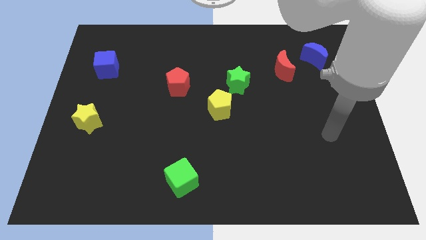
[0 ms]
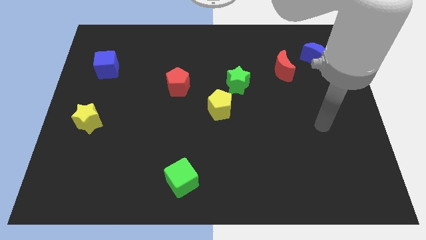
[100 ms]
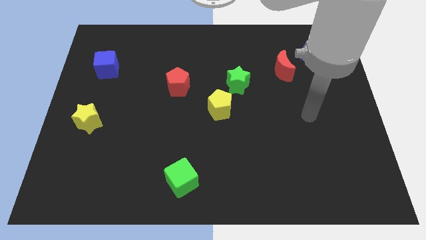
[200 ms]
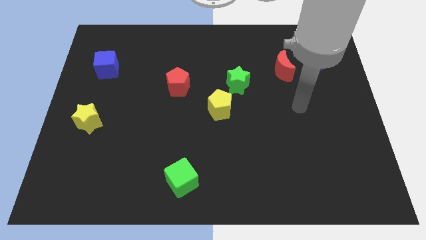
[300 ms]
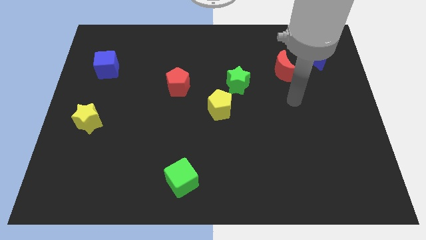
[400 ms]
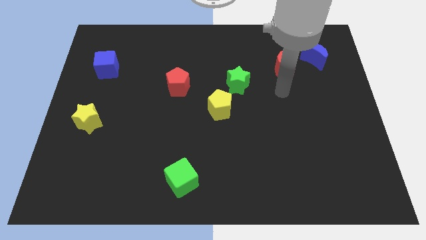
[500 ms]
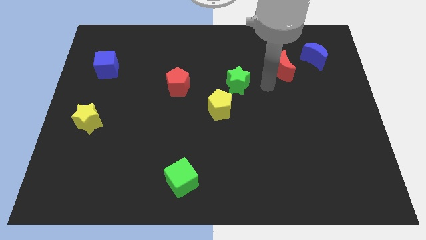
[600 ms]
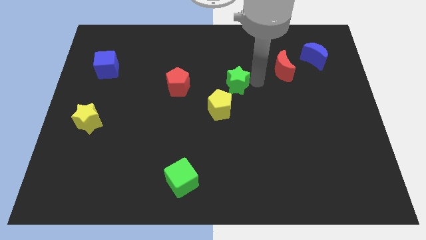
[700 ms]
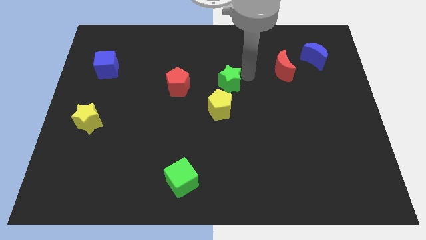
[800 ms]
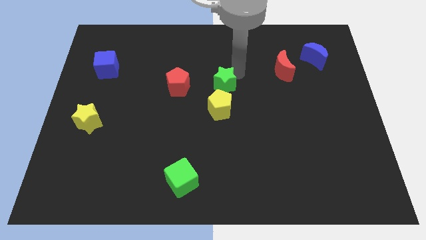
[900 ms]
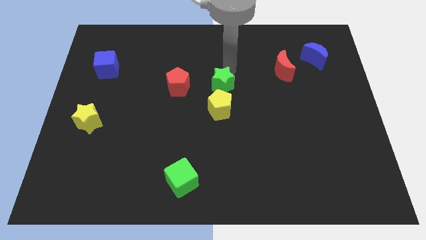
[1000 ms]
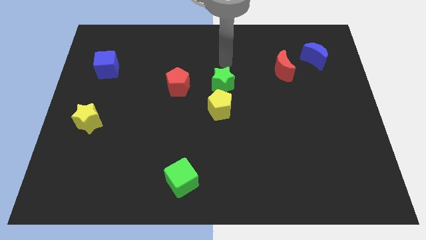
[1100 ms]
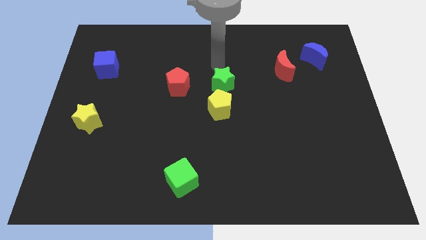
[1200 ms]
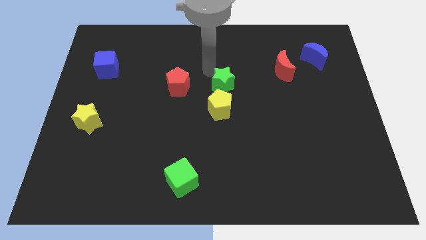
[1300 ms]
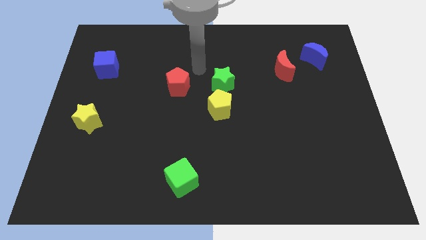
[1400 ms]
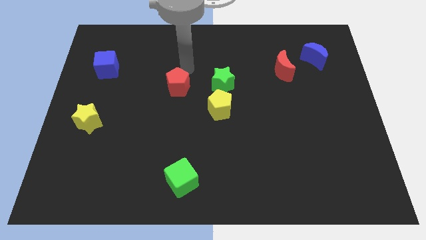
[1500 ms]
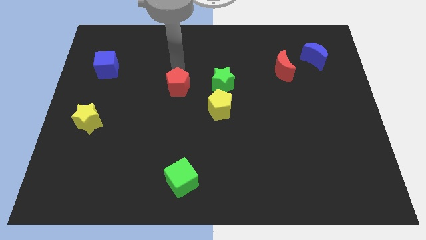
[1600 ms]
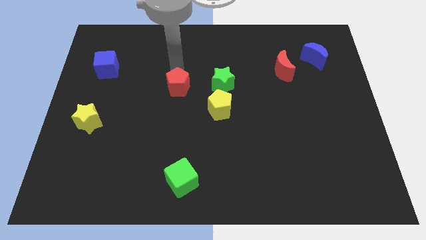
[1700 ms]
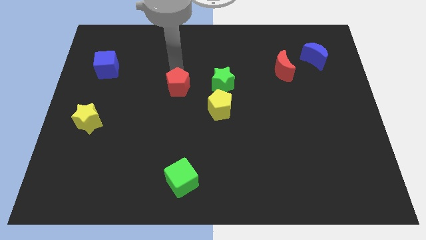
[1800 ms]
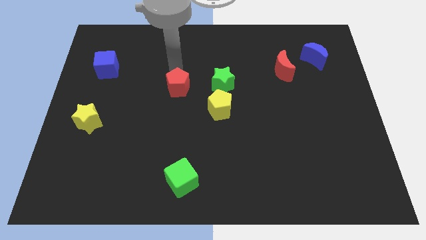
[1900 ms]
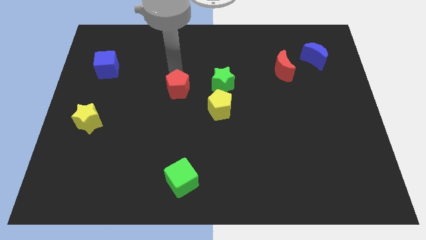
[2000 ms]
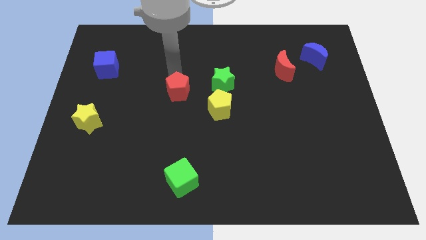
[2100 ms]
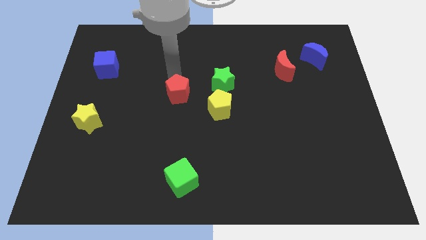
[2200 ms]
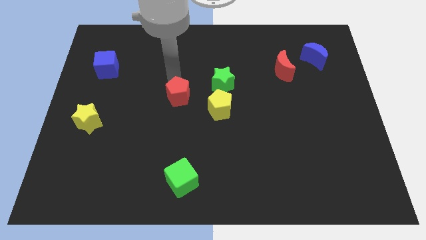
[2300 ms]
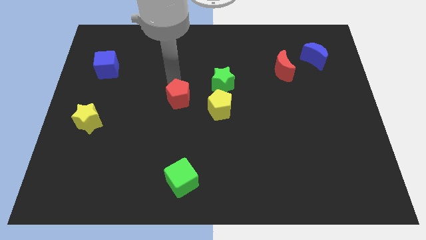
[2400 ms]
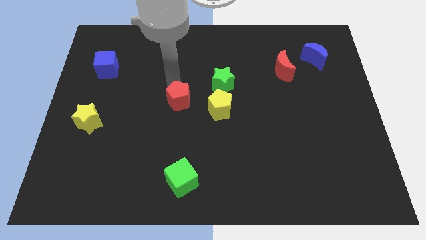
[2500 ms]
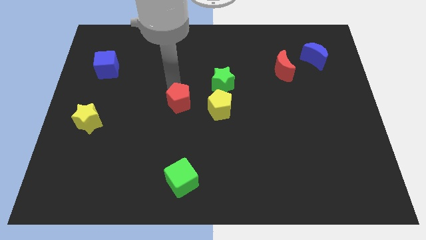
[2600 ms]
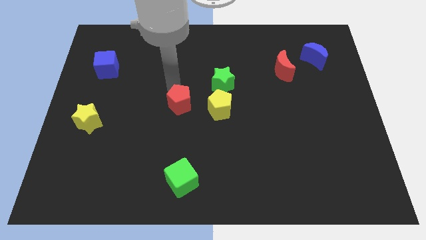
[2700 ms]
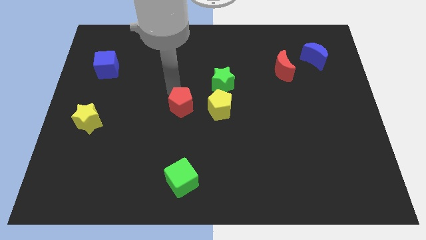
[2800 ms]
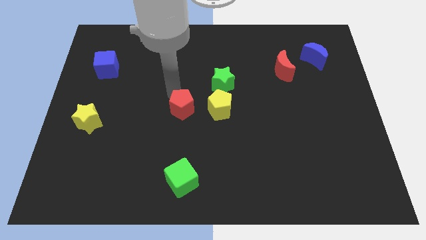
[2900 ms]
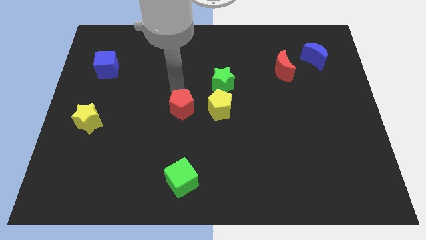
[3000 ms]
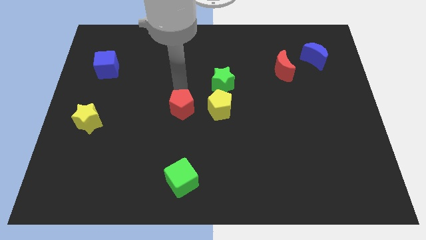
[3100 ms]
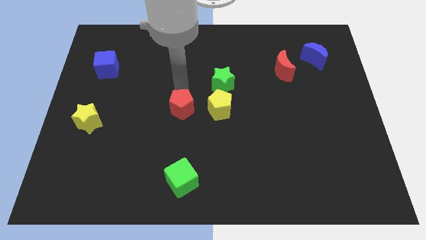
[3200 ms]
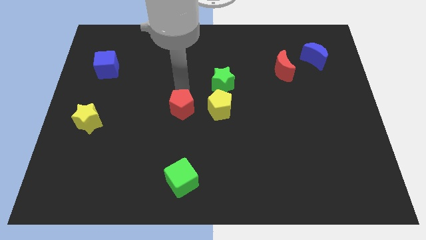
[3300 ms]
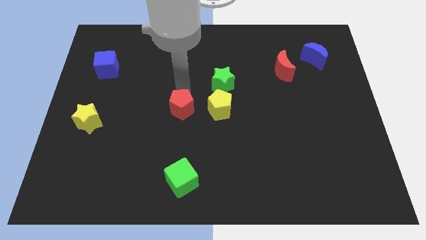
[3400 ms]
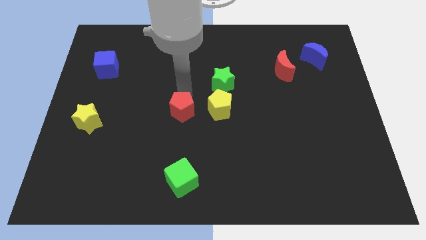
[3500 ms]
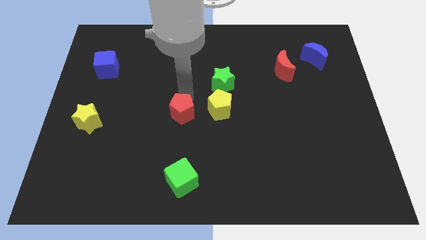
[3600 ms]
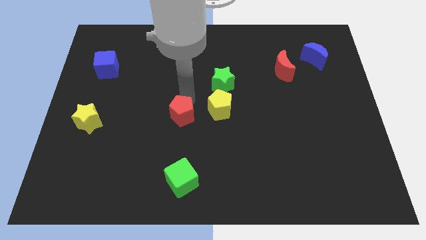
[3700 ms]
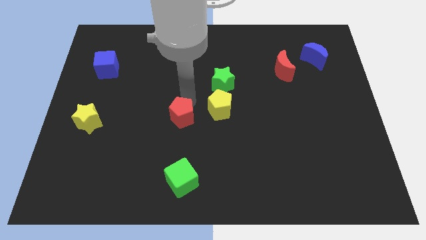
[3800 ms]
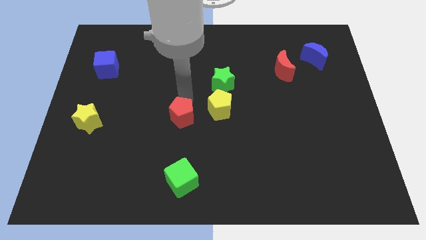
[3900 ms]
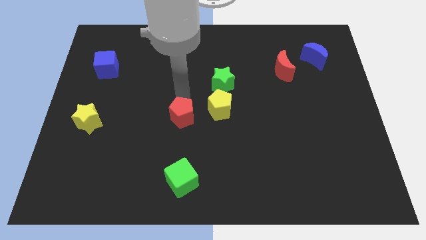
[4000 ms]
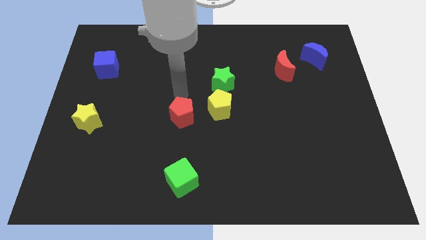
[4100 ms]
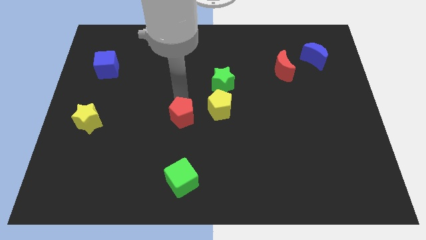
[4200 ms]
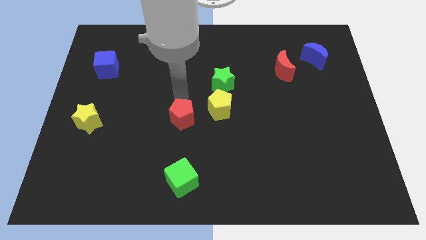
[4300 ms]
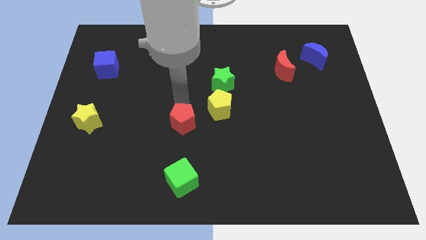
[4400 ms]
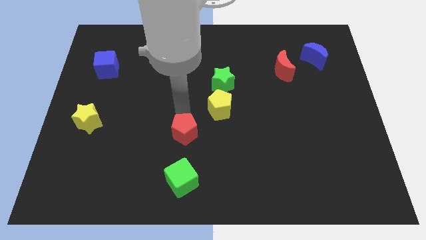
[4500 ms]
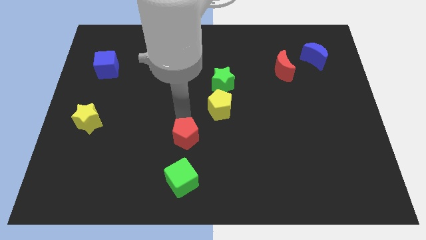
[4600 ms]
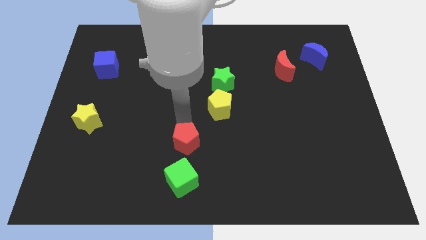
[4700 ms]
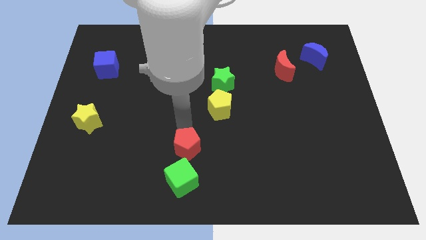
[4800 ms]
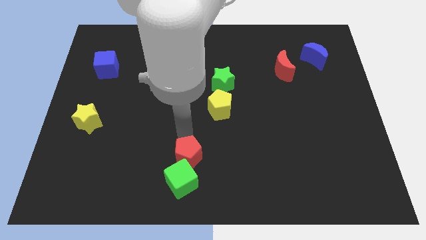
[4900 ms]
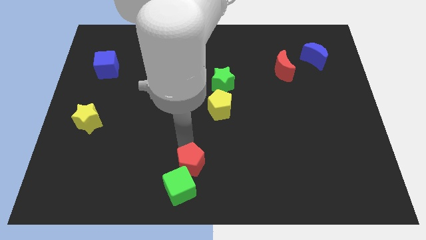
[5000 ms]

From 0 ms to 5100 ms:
slide the red pentagon to the bottom side

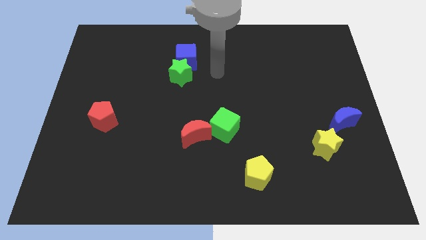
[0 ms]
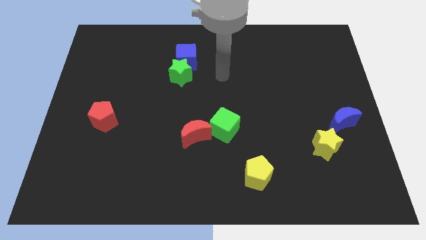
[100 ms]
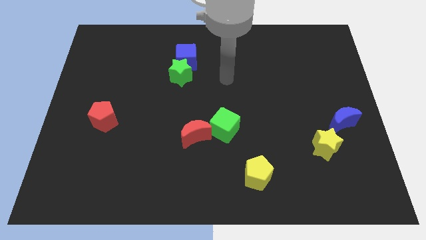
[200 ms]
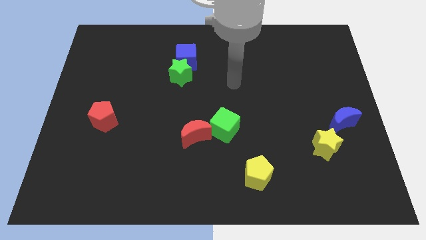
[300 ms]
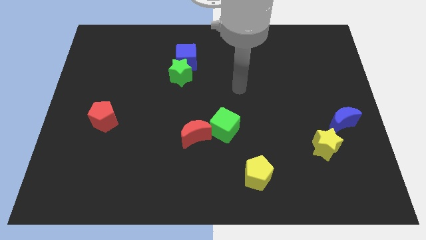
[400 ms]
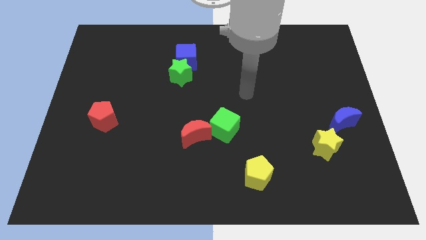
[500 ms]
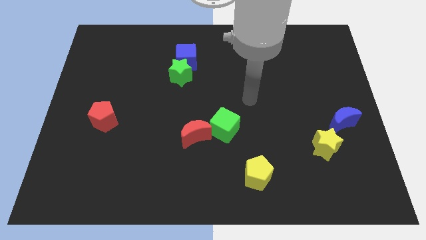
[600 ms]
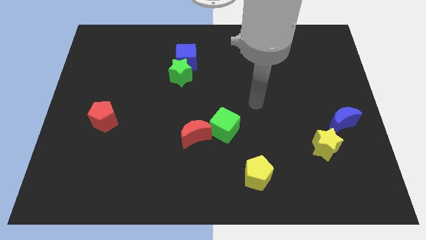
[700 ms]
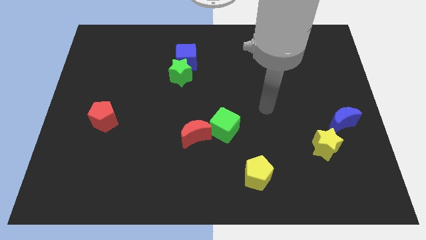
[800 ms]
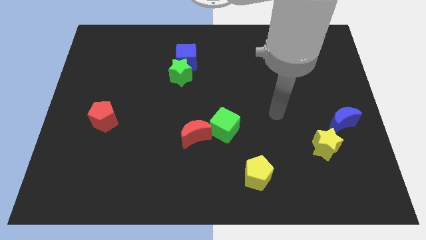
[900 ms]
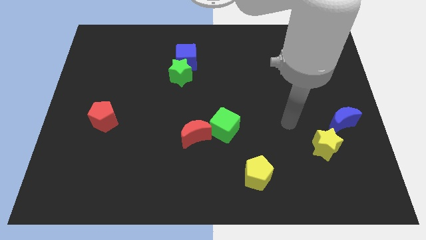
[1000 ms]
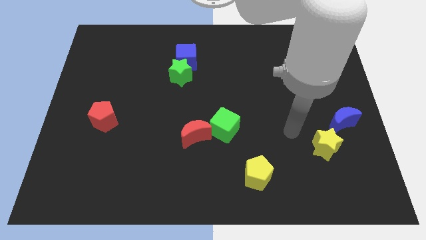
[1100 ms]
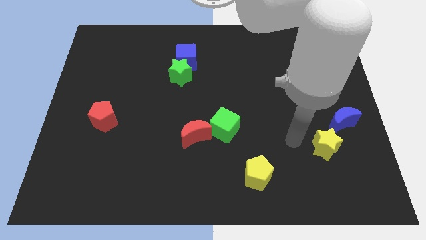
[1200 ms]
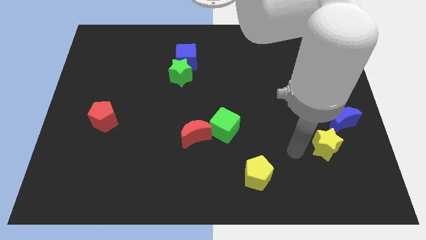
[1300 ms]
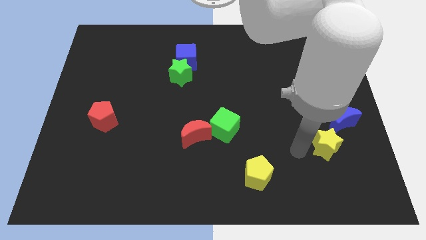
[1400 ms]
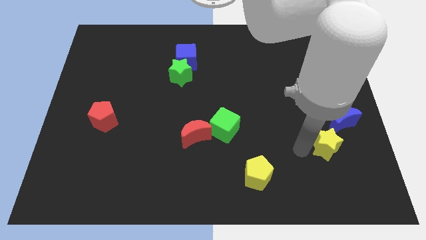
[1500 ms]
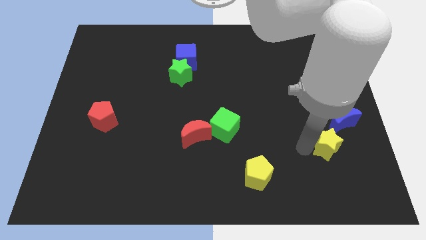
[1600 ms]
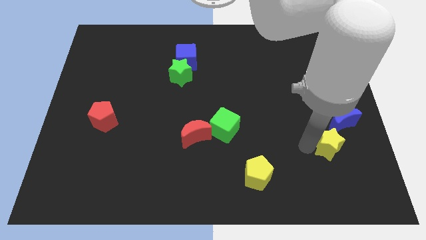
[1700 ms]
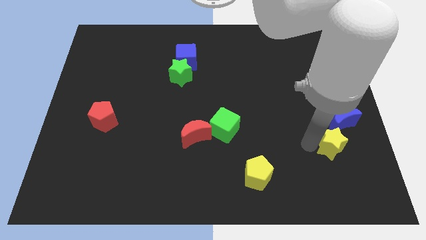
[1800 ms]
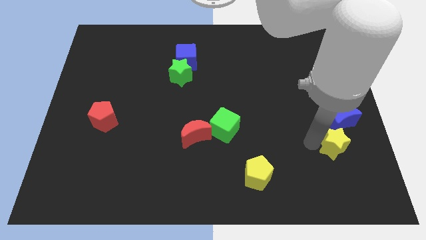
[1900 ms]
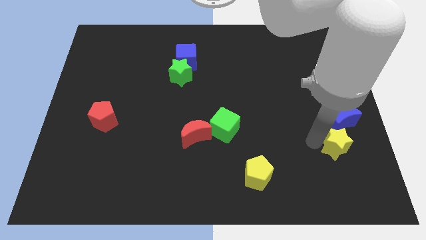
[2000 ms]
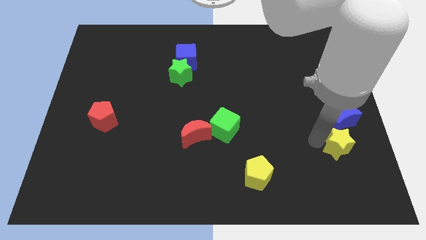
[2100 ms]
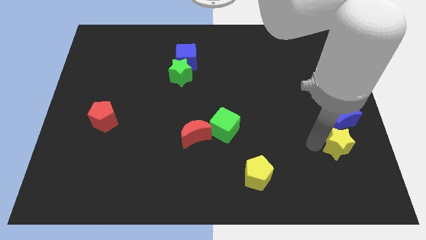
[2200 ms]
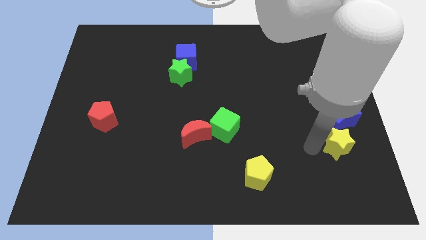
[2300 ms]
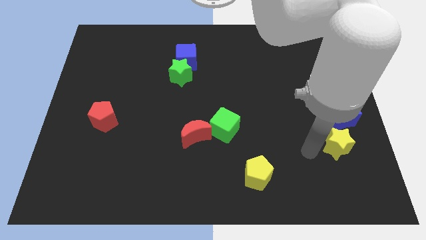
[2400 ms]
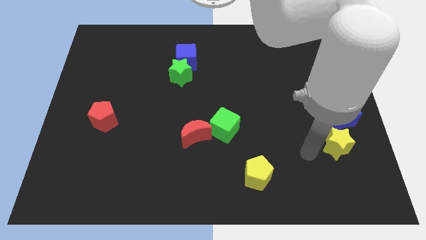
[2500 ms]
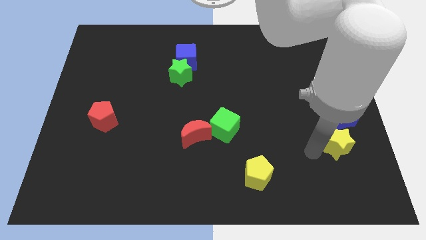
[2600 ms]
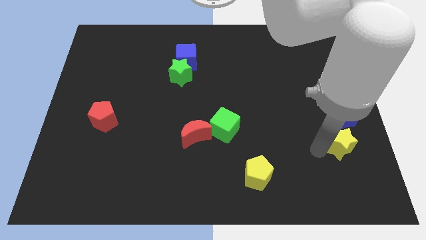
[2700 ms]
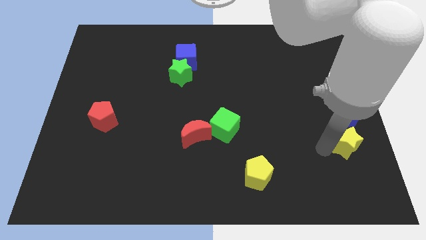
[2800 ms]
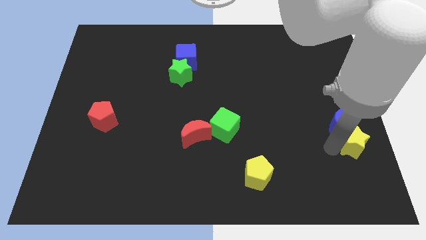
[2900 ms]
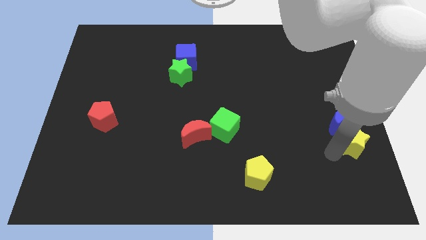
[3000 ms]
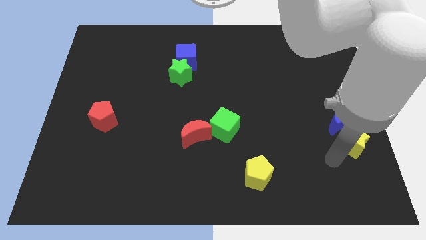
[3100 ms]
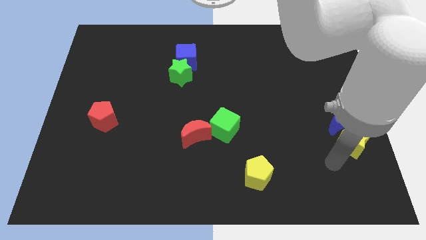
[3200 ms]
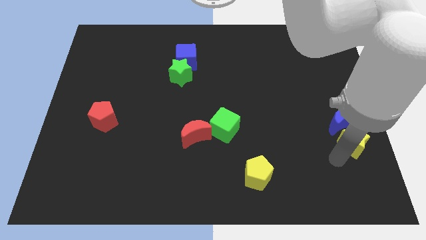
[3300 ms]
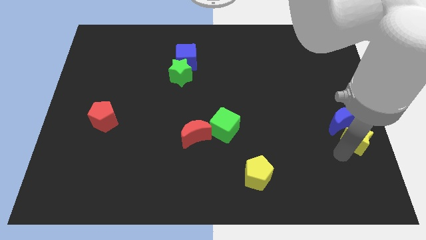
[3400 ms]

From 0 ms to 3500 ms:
move the yellow star to the right side
